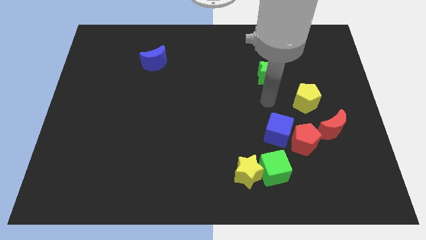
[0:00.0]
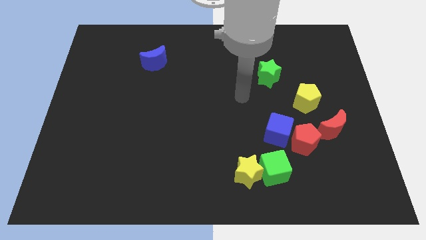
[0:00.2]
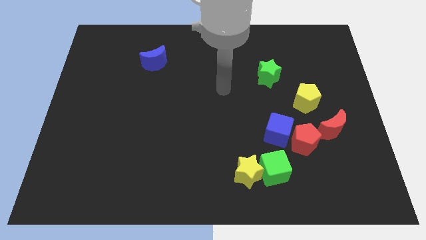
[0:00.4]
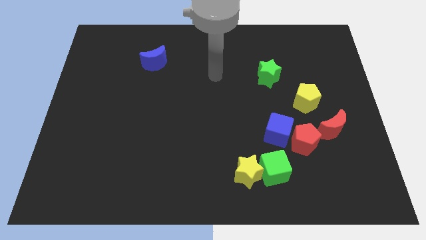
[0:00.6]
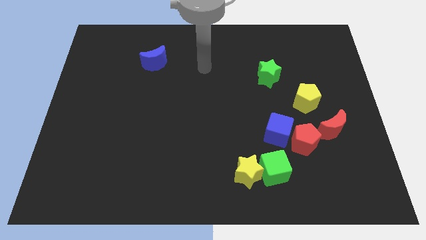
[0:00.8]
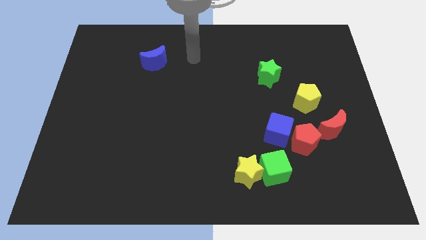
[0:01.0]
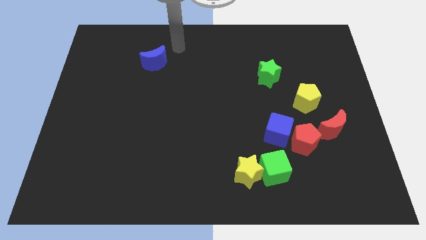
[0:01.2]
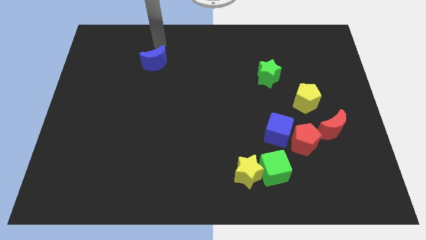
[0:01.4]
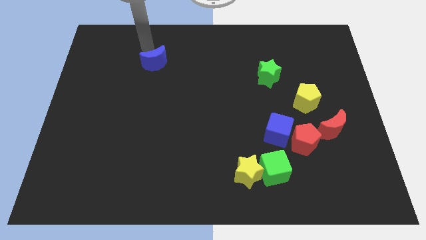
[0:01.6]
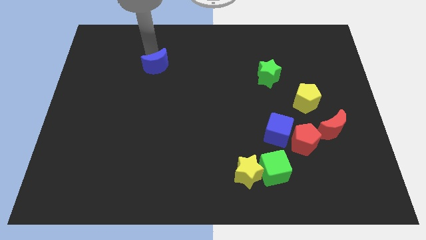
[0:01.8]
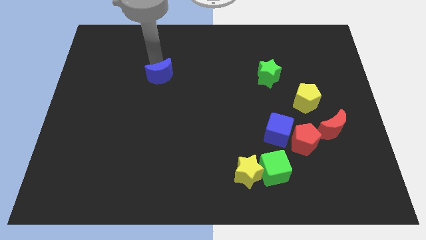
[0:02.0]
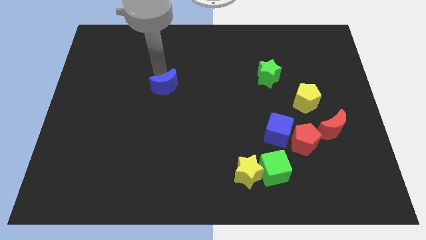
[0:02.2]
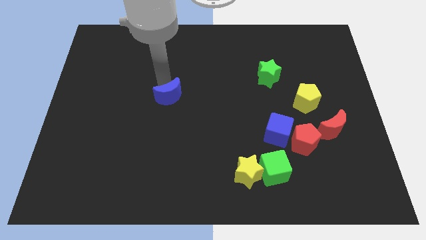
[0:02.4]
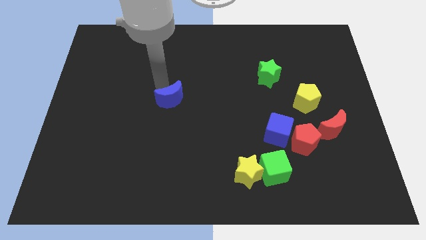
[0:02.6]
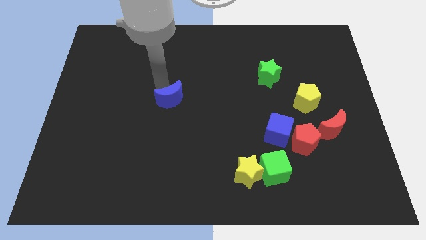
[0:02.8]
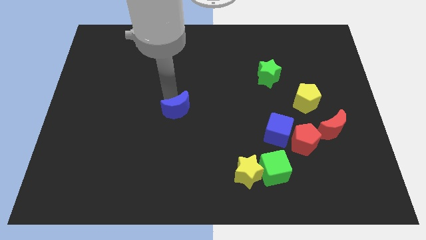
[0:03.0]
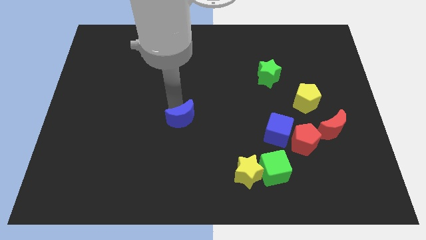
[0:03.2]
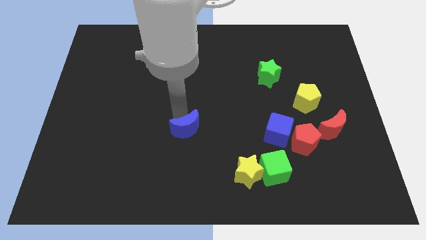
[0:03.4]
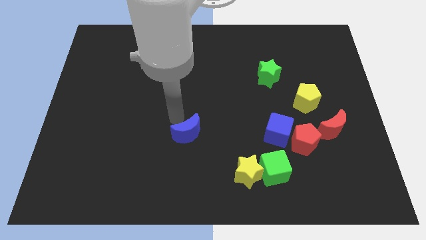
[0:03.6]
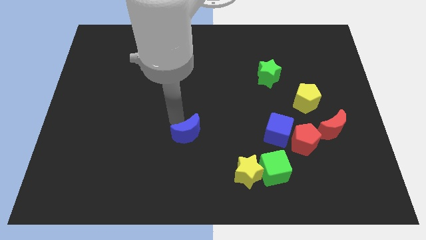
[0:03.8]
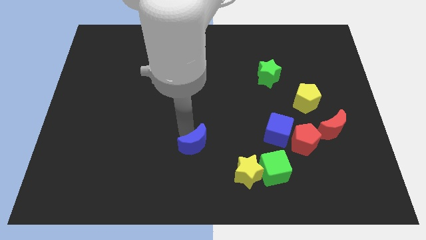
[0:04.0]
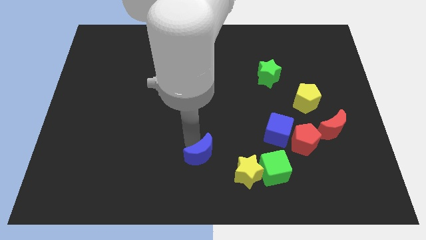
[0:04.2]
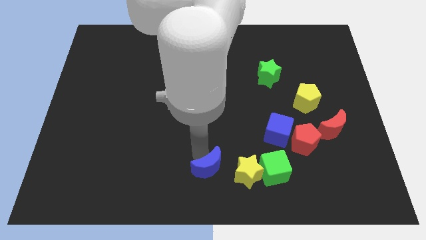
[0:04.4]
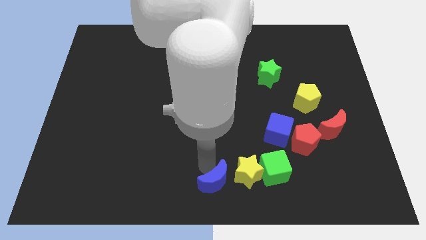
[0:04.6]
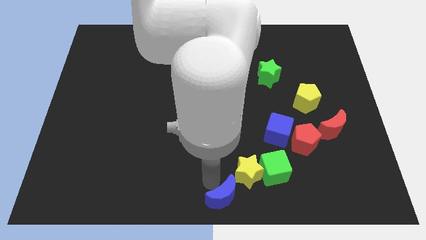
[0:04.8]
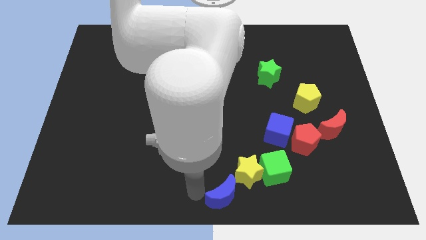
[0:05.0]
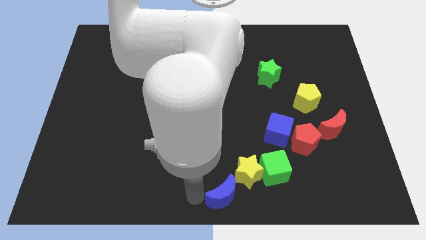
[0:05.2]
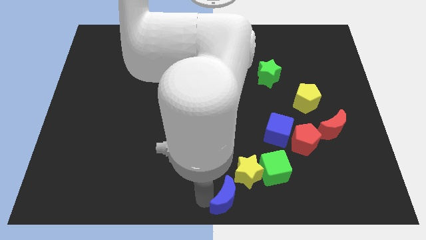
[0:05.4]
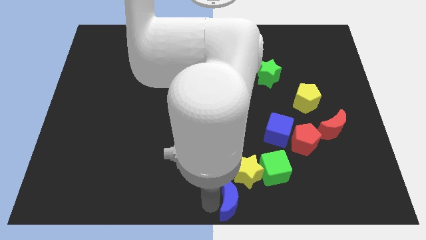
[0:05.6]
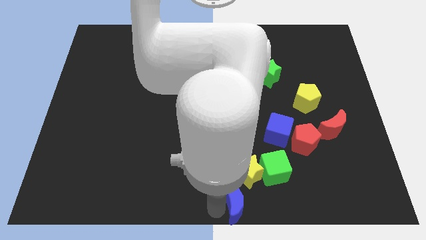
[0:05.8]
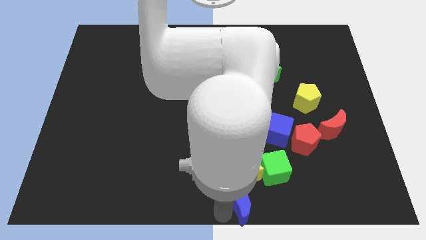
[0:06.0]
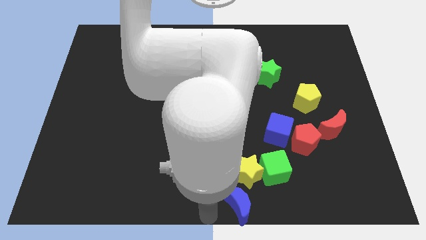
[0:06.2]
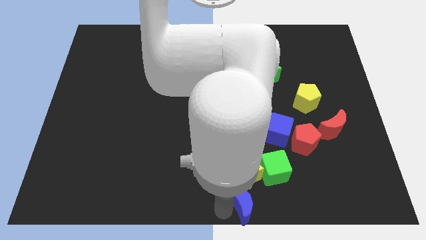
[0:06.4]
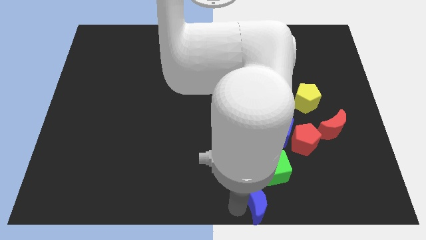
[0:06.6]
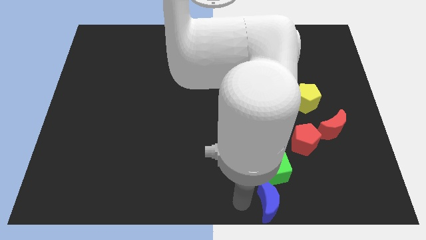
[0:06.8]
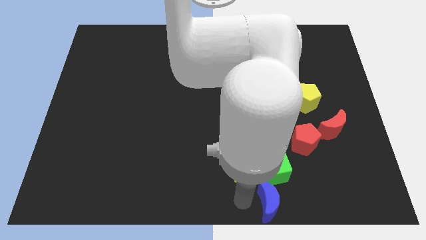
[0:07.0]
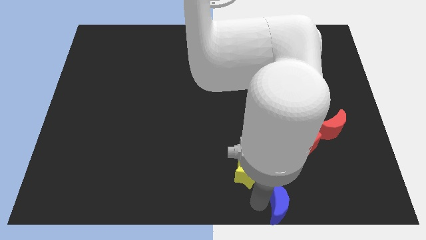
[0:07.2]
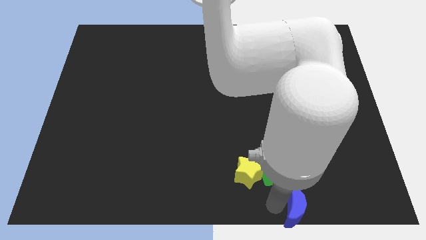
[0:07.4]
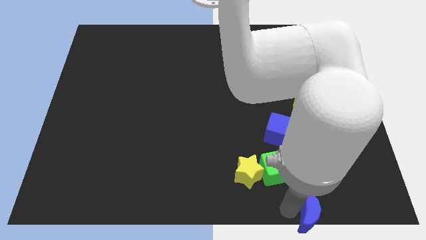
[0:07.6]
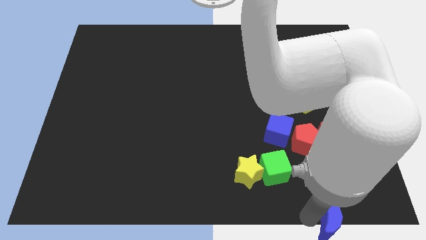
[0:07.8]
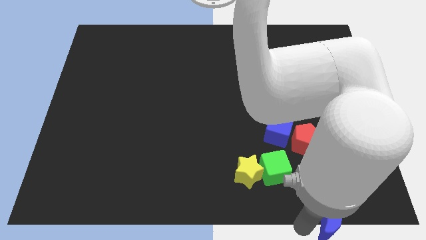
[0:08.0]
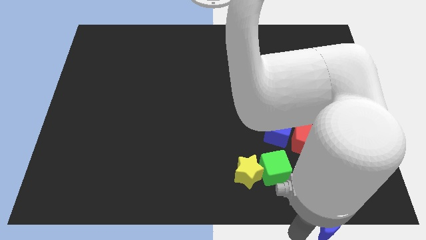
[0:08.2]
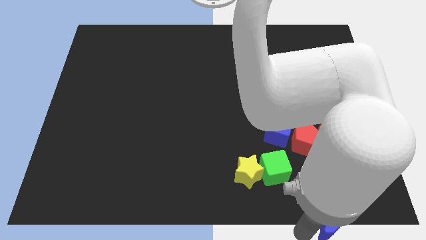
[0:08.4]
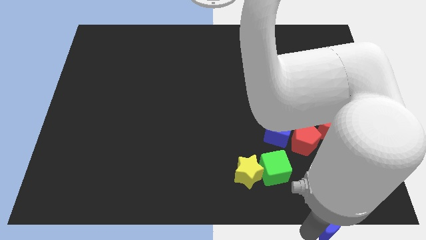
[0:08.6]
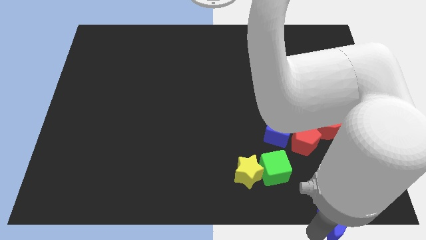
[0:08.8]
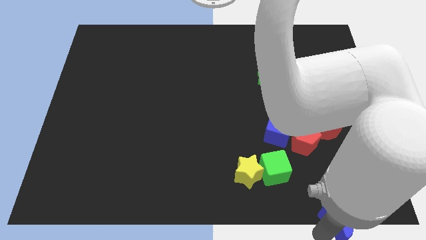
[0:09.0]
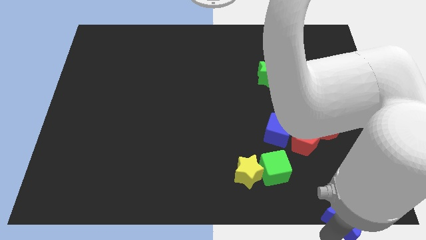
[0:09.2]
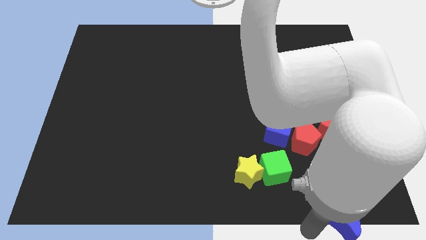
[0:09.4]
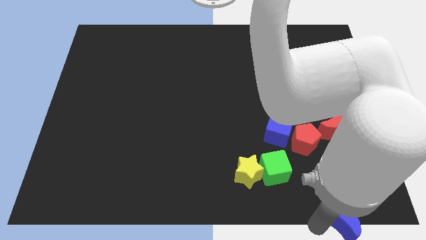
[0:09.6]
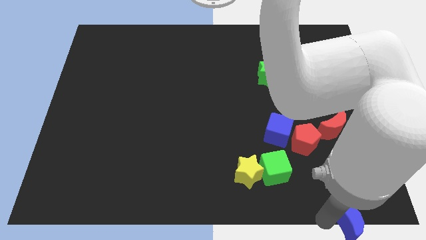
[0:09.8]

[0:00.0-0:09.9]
move the blue moon to the lower right corner

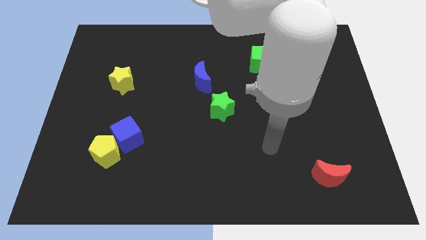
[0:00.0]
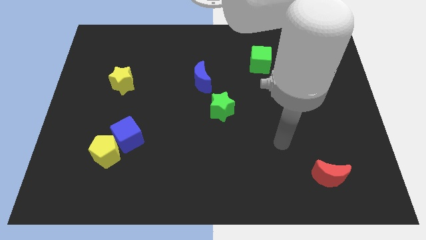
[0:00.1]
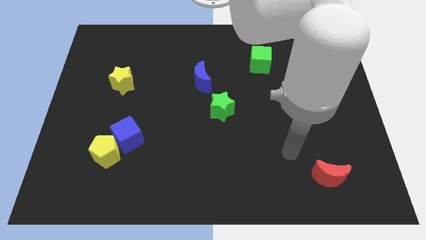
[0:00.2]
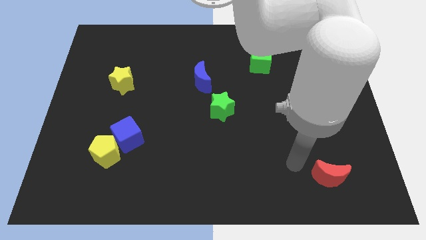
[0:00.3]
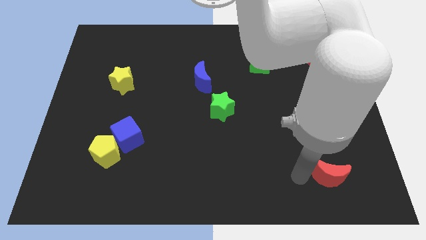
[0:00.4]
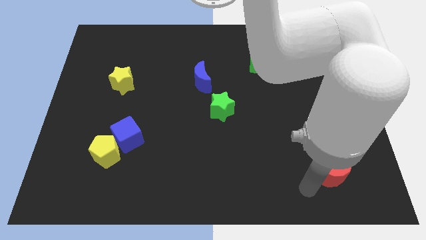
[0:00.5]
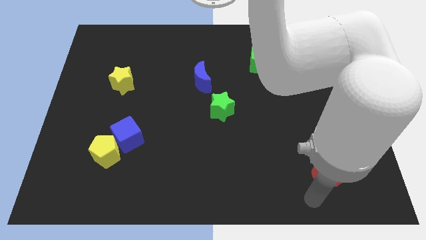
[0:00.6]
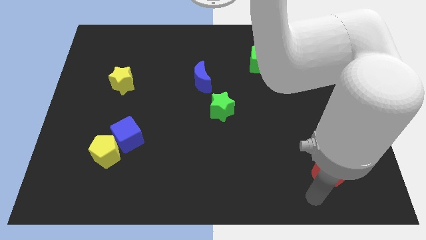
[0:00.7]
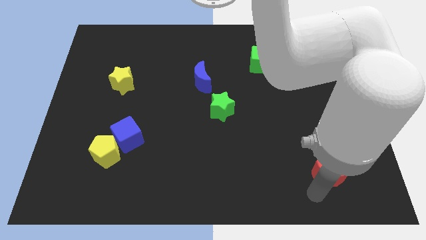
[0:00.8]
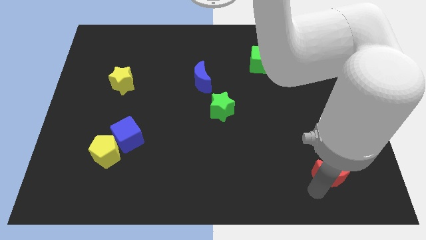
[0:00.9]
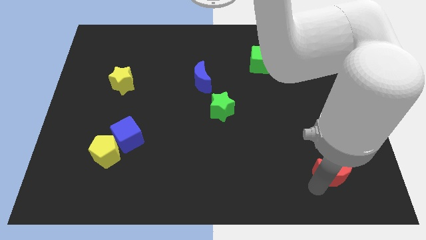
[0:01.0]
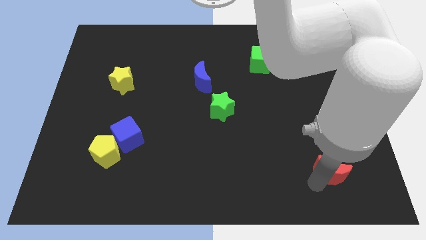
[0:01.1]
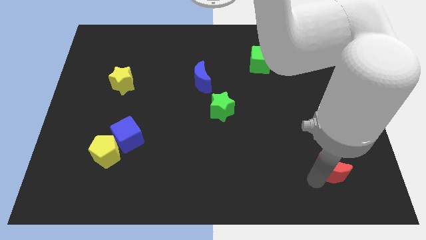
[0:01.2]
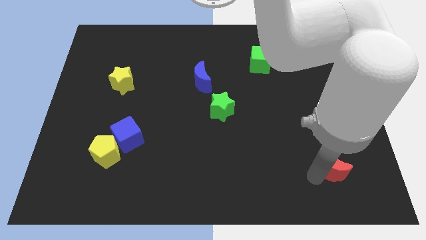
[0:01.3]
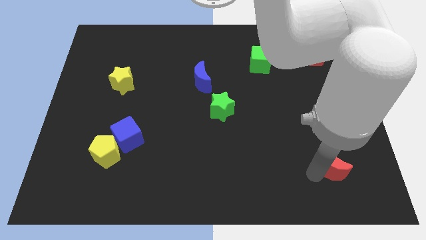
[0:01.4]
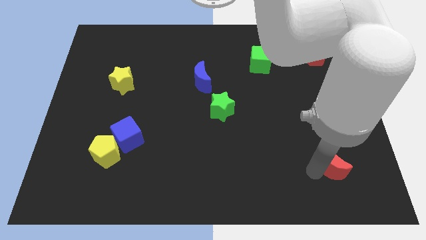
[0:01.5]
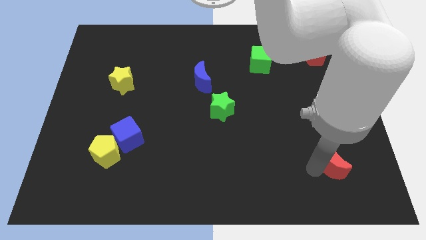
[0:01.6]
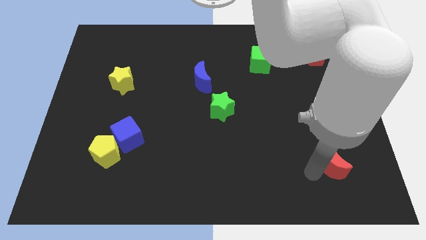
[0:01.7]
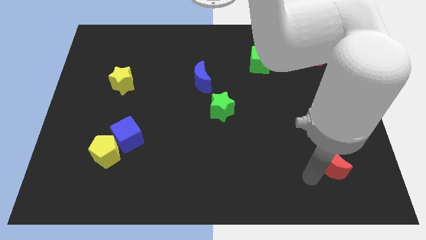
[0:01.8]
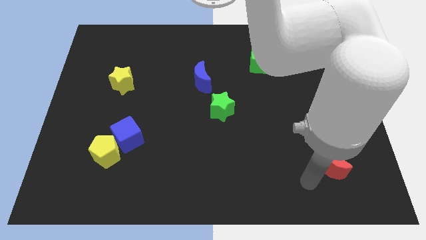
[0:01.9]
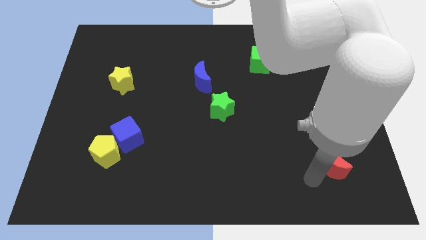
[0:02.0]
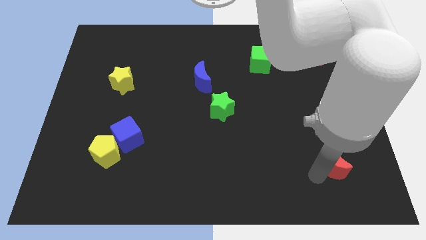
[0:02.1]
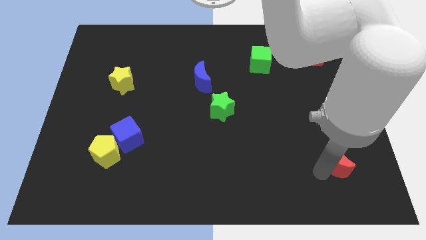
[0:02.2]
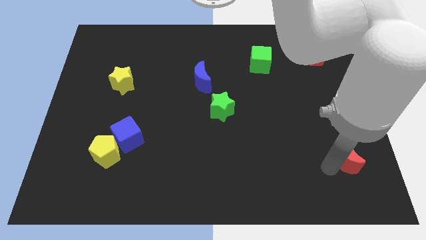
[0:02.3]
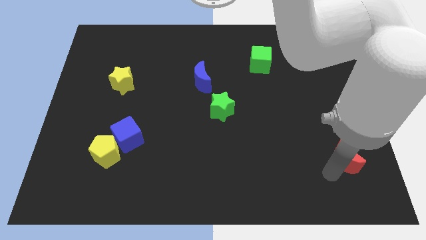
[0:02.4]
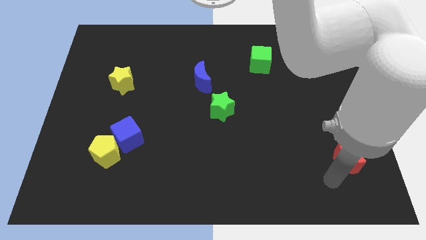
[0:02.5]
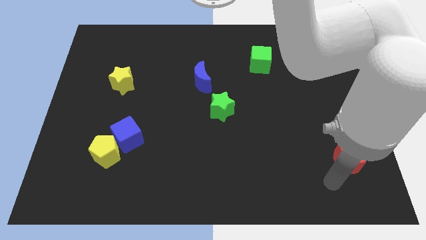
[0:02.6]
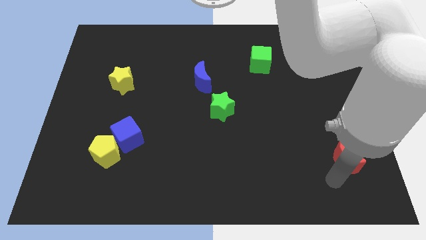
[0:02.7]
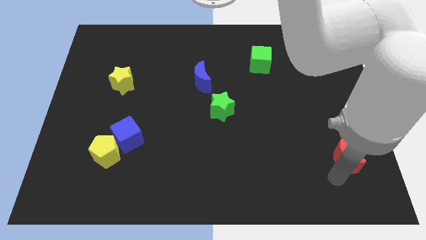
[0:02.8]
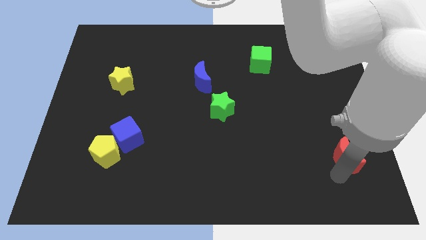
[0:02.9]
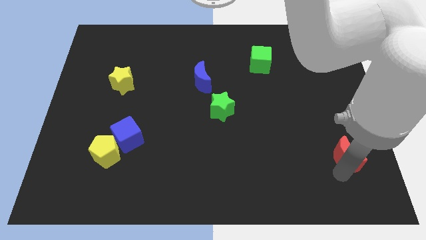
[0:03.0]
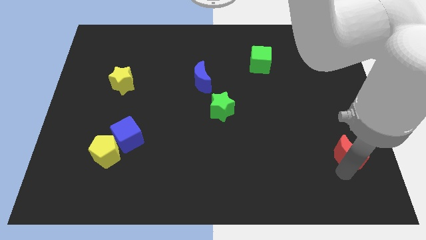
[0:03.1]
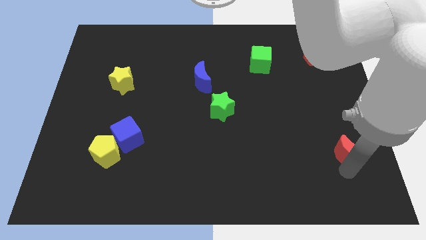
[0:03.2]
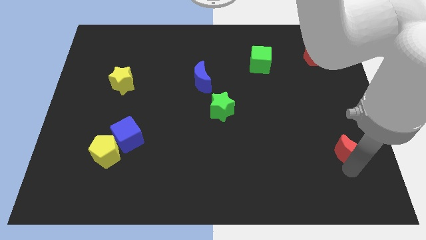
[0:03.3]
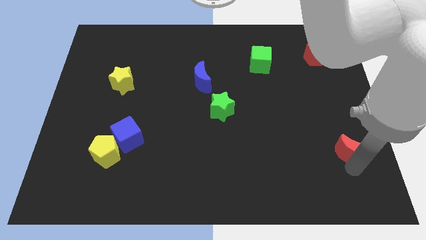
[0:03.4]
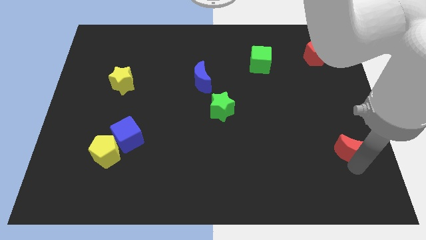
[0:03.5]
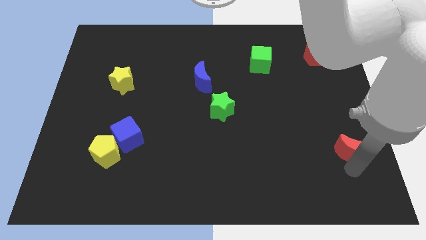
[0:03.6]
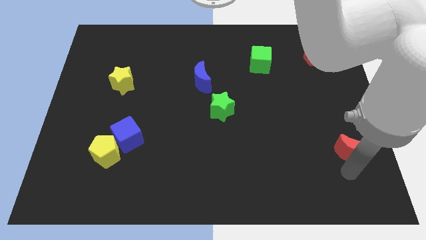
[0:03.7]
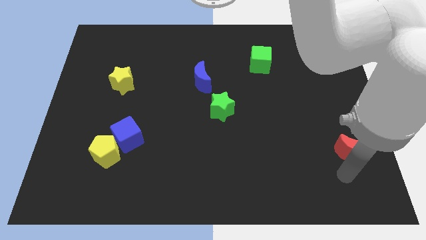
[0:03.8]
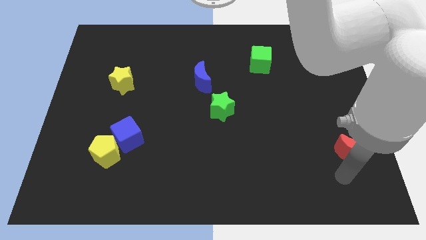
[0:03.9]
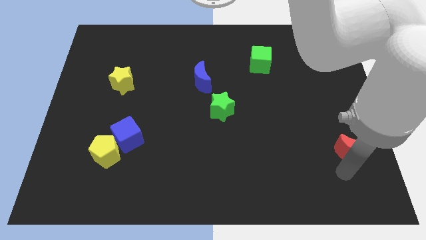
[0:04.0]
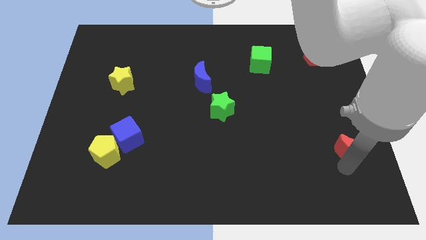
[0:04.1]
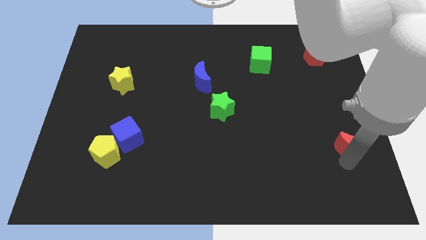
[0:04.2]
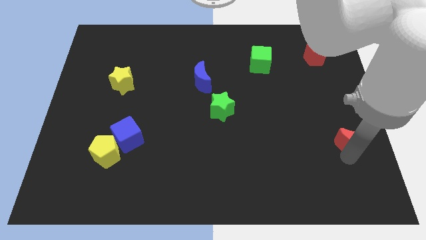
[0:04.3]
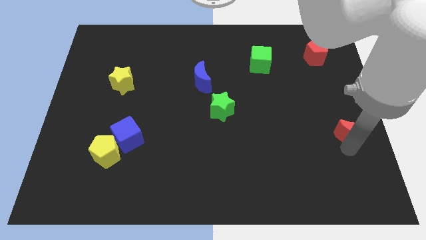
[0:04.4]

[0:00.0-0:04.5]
put the red moon to the right side of the board
